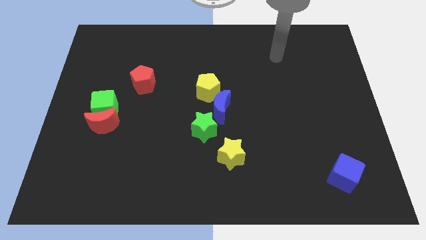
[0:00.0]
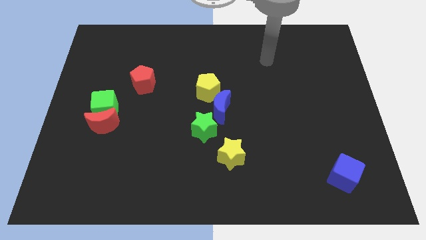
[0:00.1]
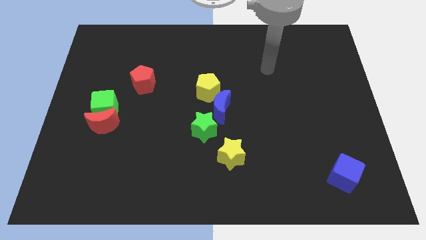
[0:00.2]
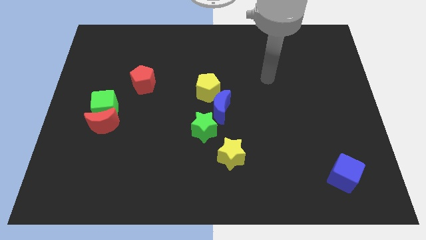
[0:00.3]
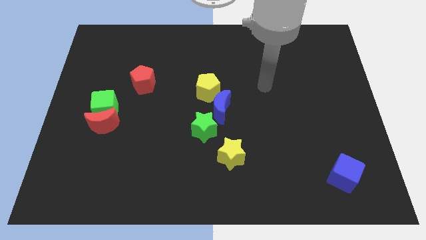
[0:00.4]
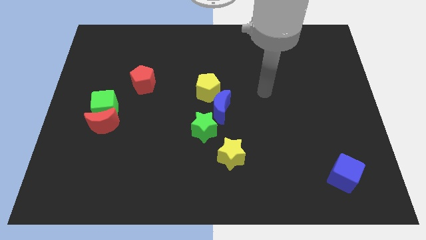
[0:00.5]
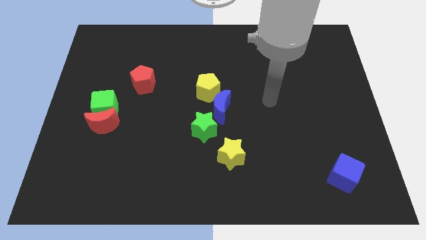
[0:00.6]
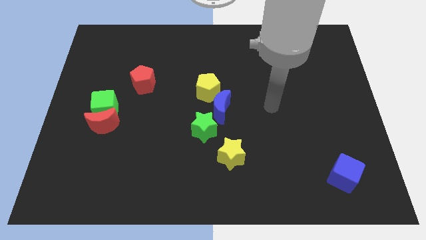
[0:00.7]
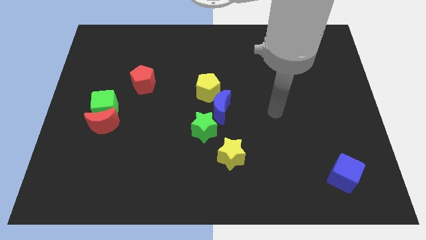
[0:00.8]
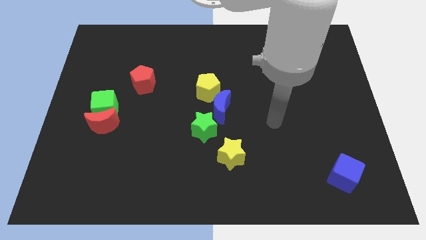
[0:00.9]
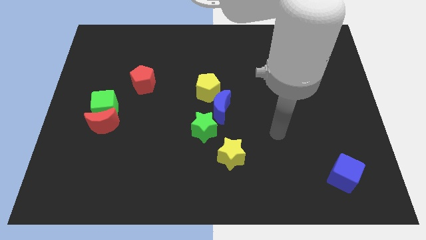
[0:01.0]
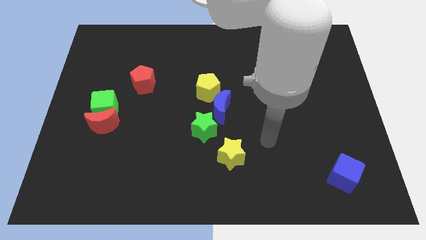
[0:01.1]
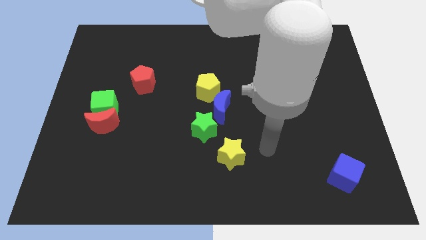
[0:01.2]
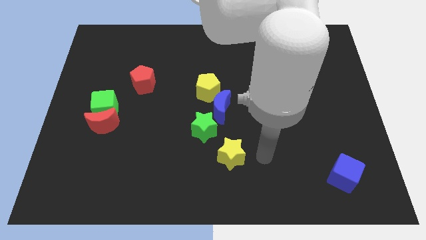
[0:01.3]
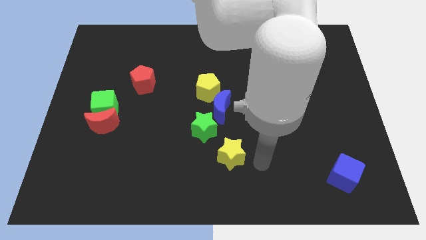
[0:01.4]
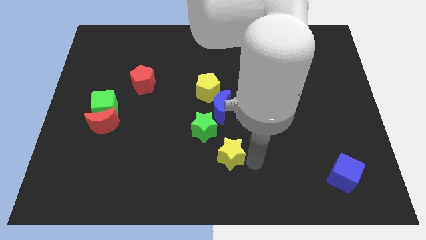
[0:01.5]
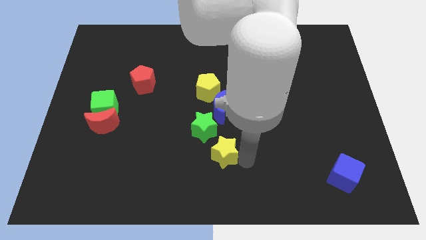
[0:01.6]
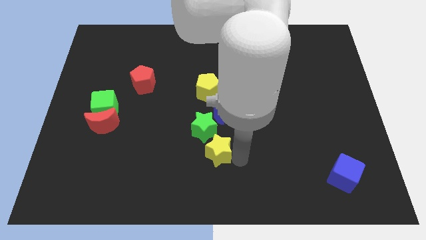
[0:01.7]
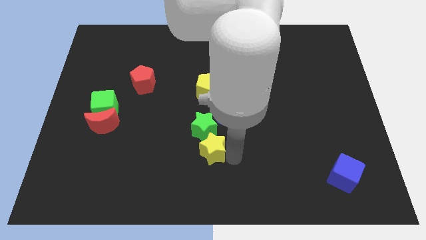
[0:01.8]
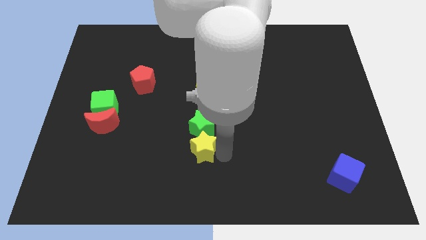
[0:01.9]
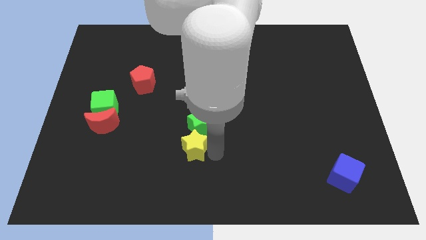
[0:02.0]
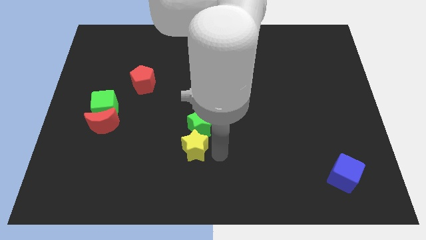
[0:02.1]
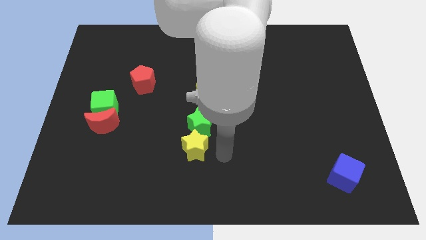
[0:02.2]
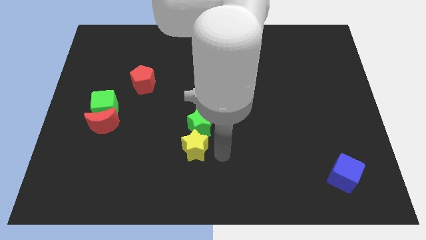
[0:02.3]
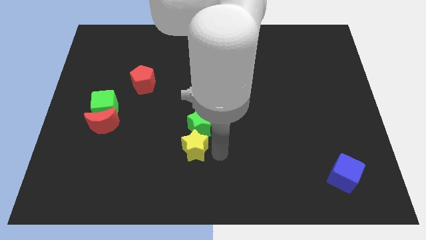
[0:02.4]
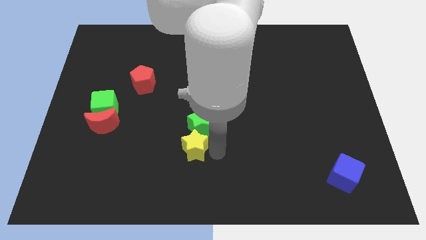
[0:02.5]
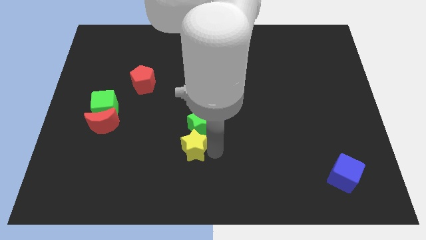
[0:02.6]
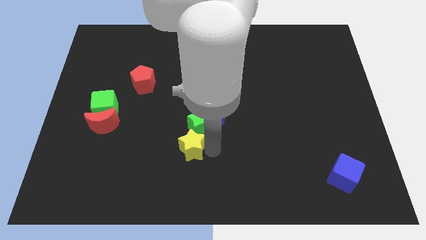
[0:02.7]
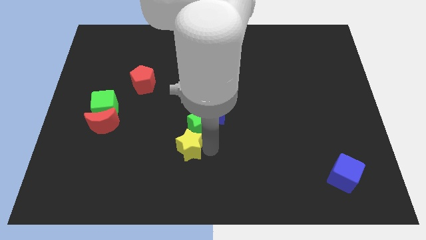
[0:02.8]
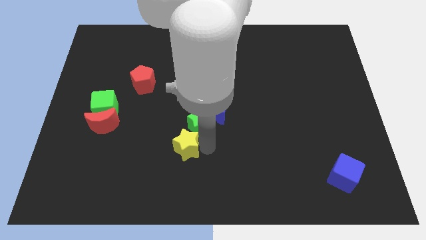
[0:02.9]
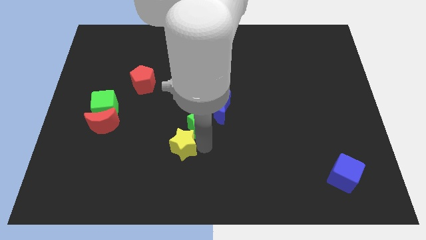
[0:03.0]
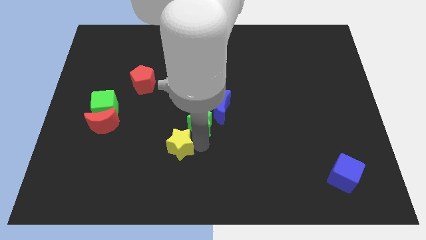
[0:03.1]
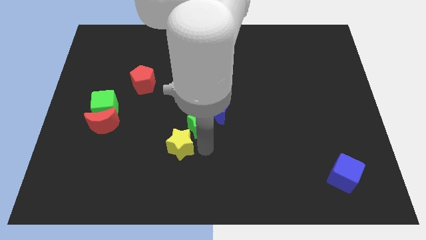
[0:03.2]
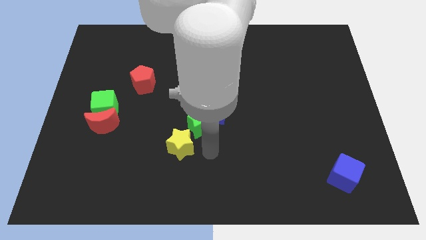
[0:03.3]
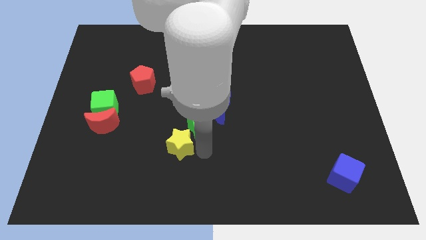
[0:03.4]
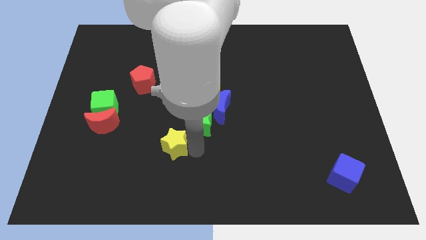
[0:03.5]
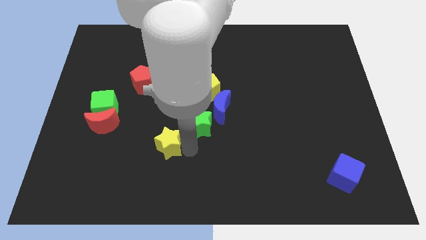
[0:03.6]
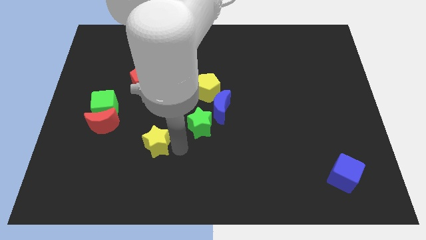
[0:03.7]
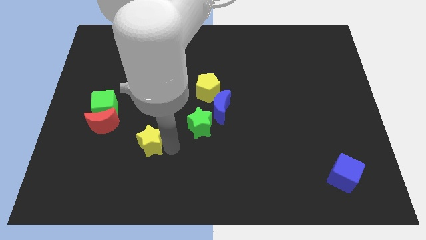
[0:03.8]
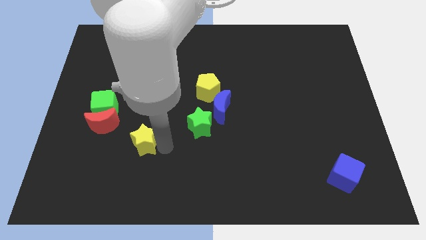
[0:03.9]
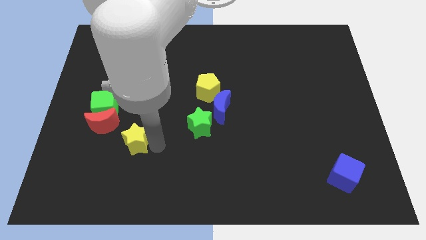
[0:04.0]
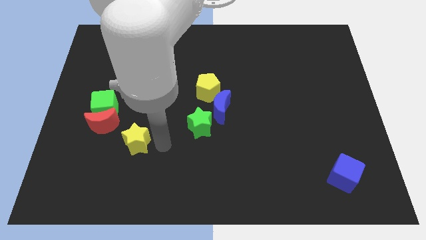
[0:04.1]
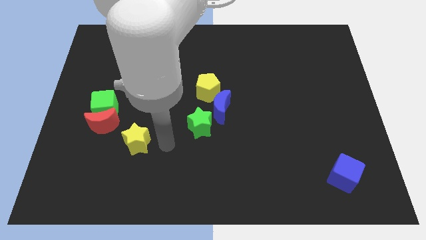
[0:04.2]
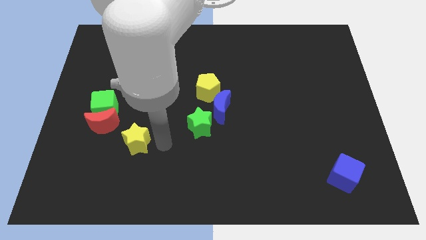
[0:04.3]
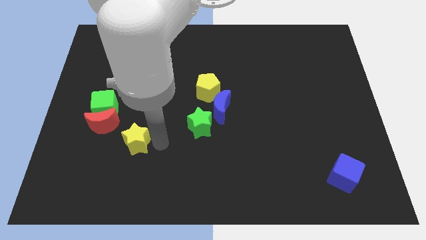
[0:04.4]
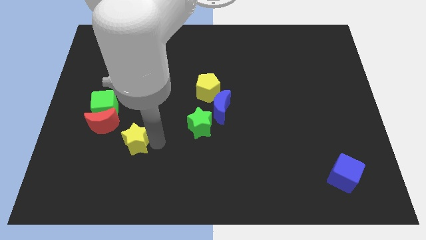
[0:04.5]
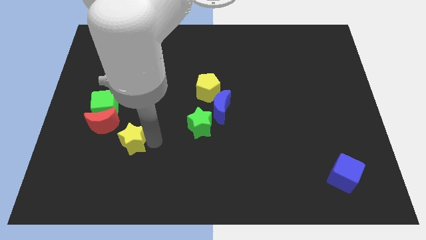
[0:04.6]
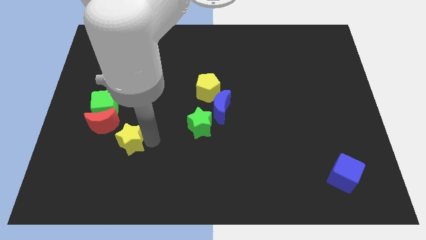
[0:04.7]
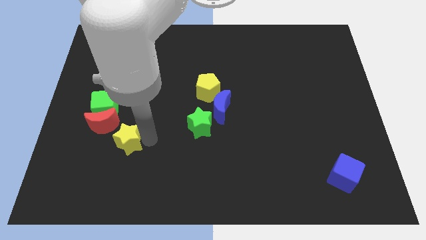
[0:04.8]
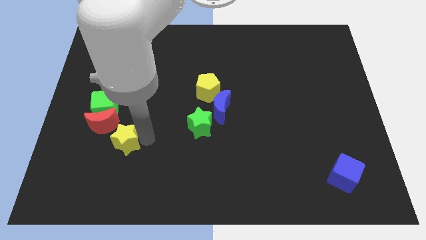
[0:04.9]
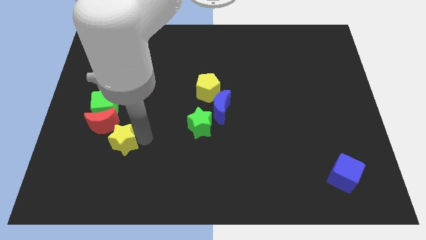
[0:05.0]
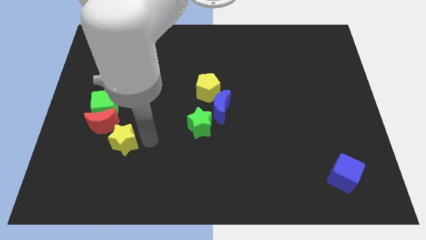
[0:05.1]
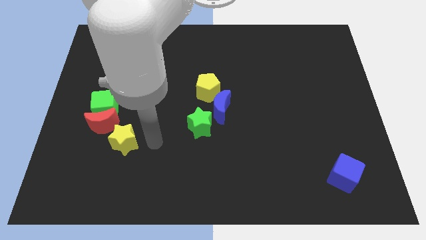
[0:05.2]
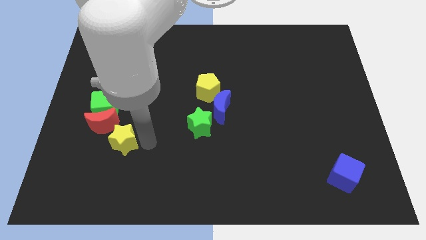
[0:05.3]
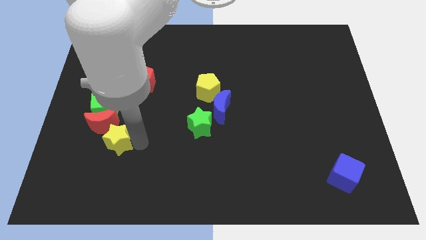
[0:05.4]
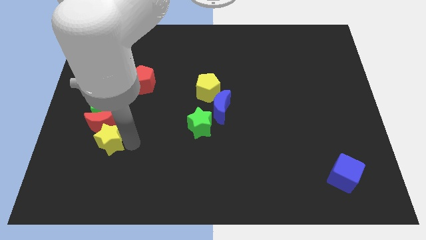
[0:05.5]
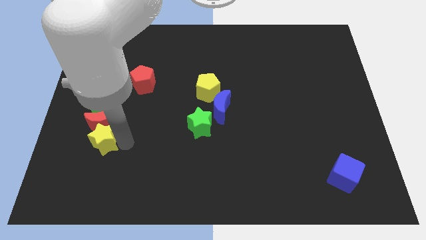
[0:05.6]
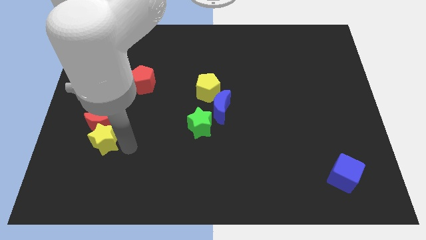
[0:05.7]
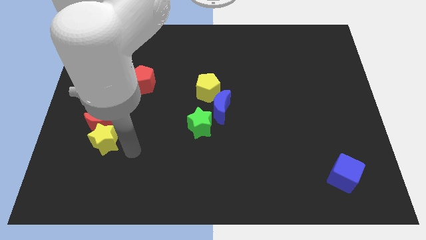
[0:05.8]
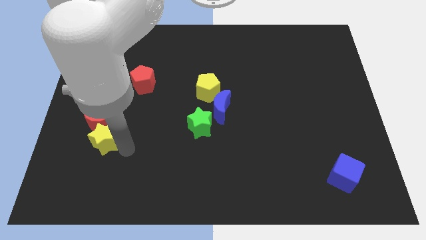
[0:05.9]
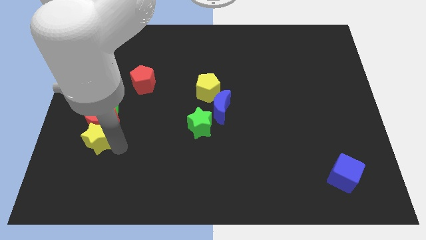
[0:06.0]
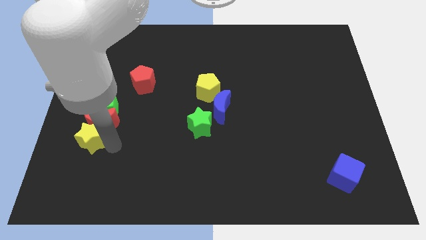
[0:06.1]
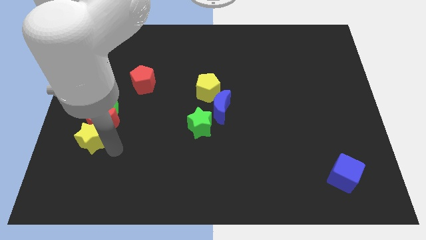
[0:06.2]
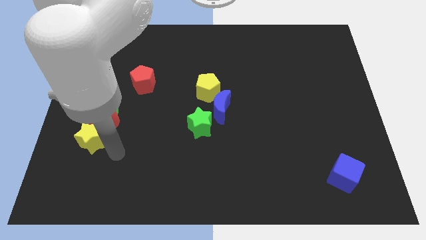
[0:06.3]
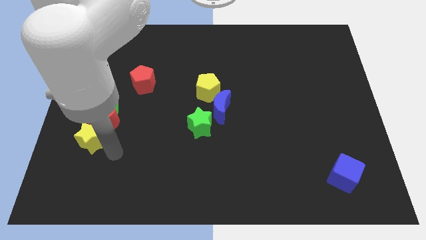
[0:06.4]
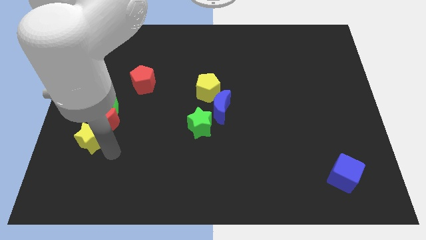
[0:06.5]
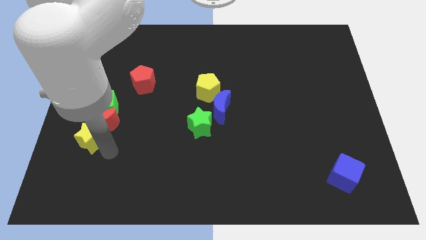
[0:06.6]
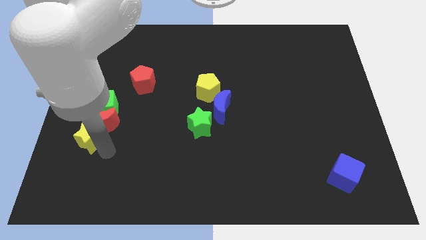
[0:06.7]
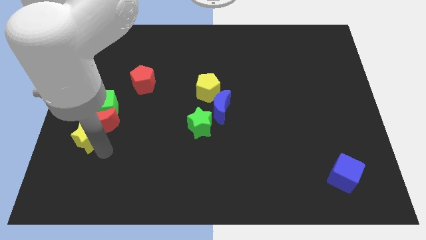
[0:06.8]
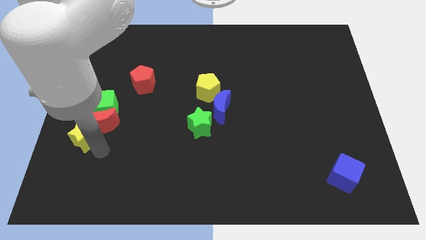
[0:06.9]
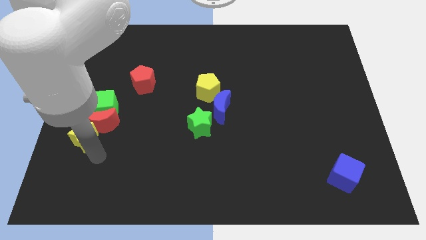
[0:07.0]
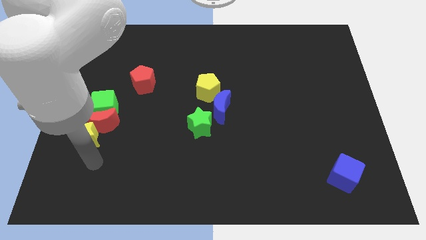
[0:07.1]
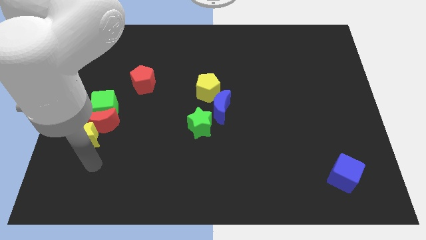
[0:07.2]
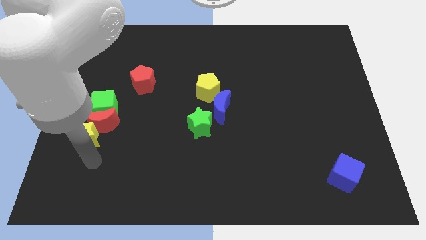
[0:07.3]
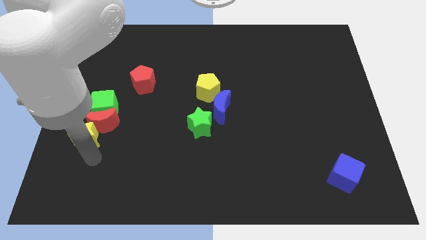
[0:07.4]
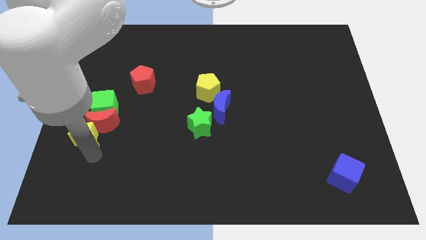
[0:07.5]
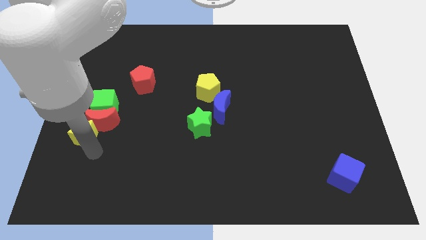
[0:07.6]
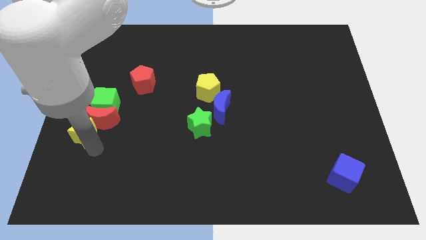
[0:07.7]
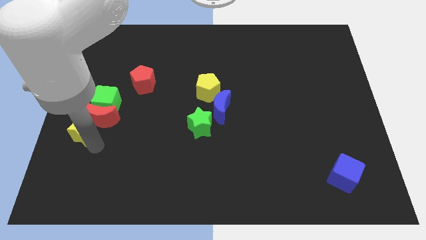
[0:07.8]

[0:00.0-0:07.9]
put the yellow star to the left side of the board
